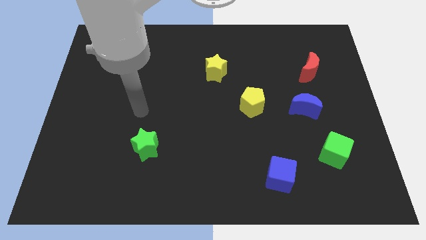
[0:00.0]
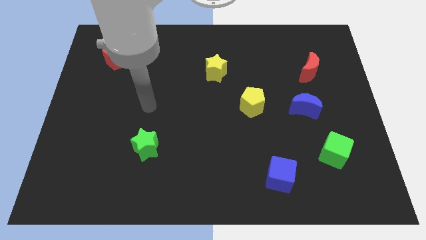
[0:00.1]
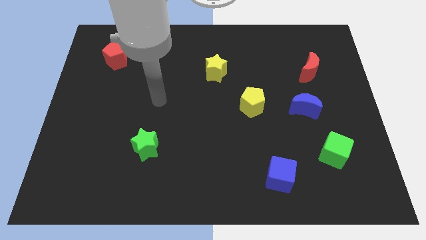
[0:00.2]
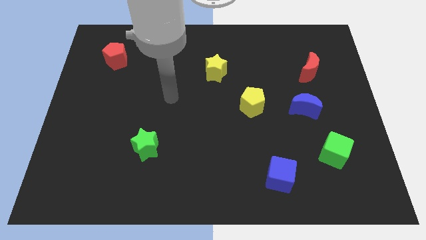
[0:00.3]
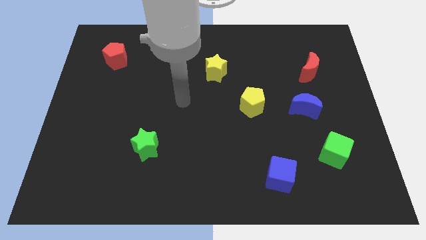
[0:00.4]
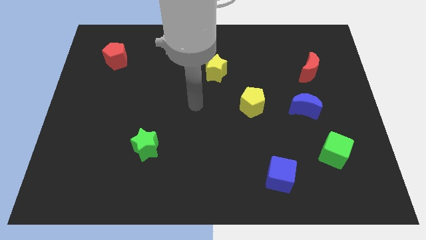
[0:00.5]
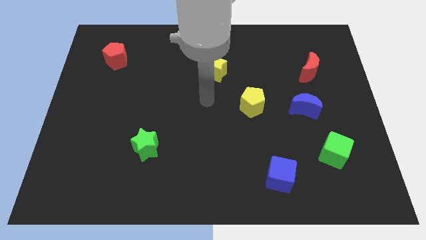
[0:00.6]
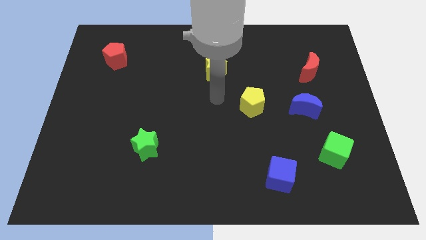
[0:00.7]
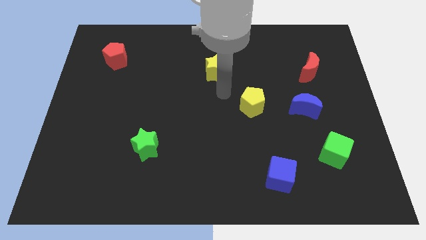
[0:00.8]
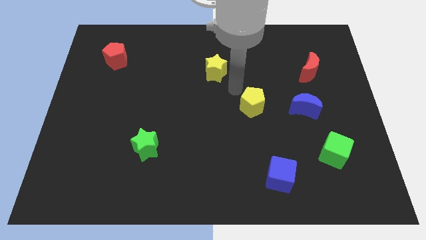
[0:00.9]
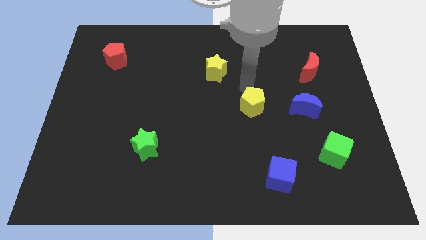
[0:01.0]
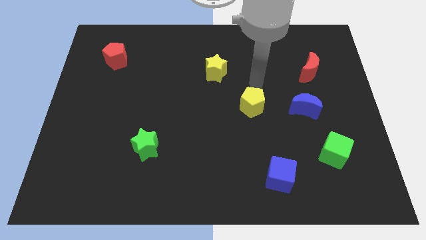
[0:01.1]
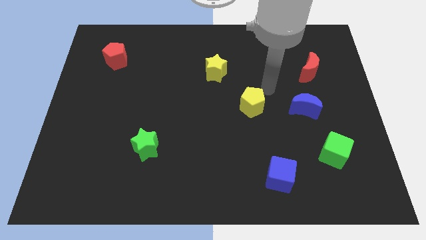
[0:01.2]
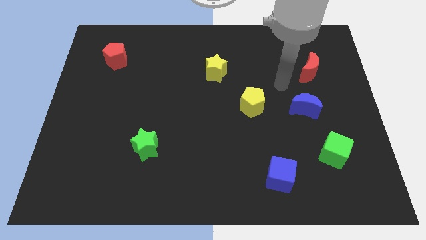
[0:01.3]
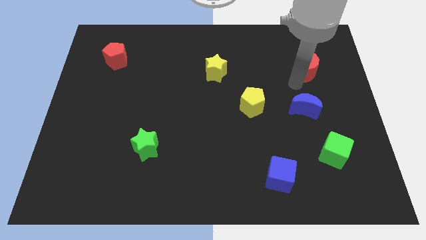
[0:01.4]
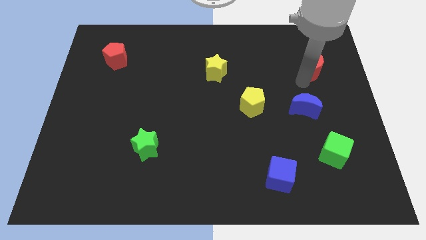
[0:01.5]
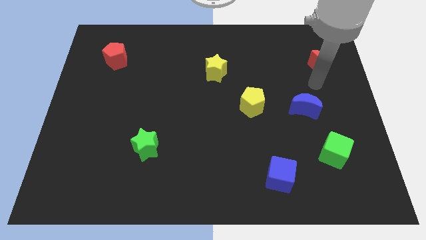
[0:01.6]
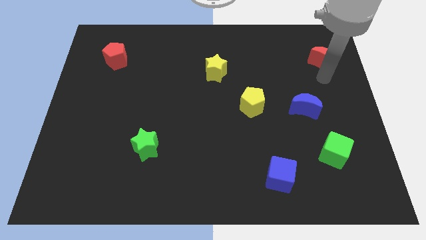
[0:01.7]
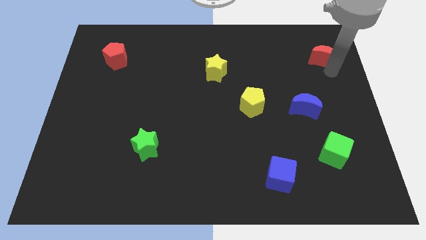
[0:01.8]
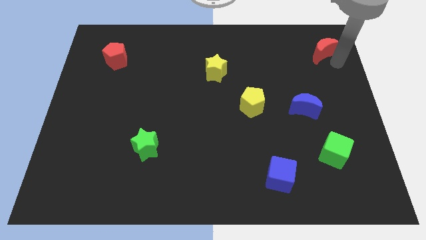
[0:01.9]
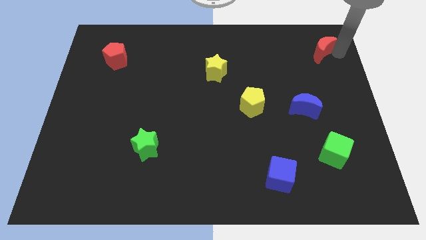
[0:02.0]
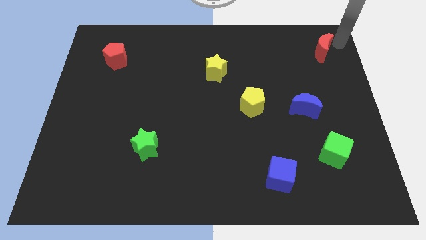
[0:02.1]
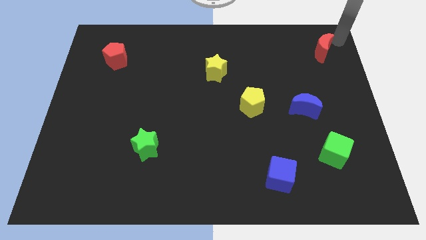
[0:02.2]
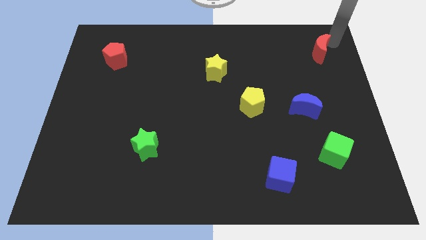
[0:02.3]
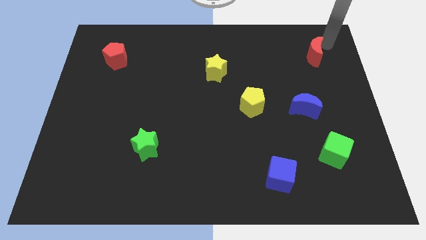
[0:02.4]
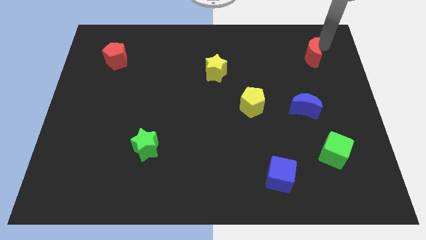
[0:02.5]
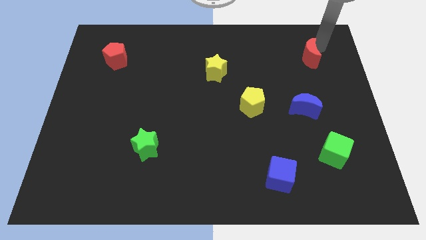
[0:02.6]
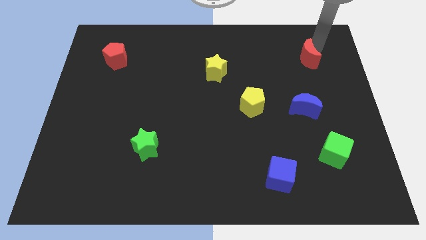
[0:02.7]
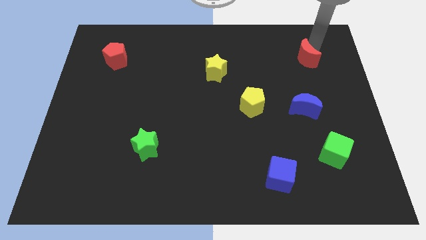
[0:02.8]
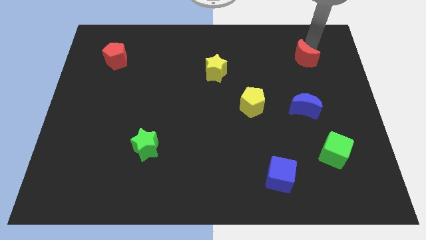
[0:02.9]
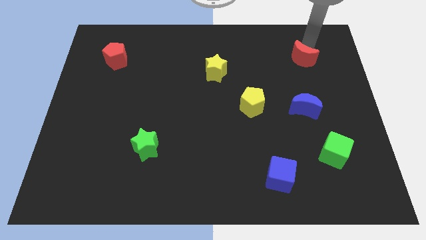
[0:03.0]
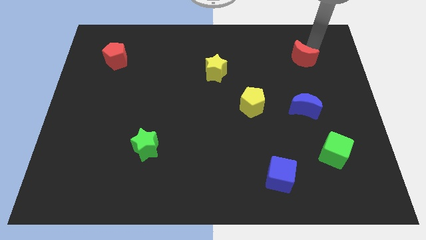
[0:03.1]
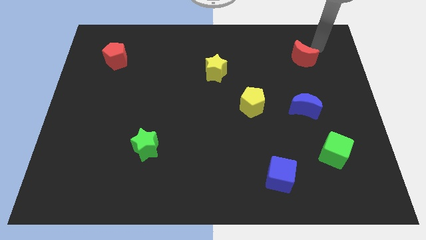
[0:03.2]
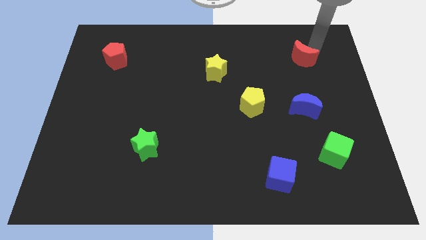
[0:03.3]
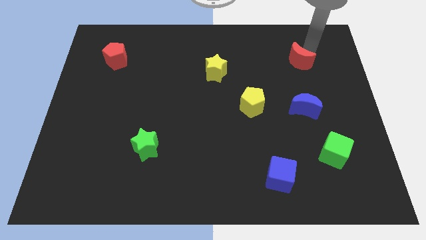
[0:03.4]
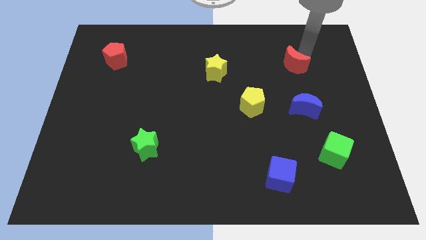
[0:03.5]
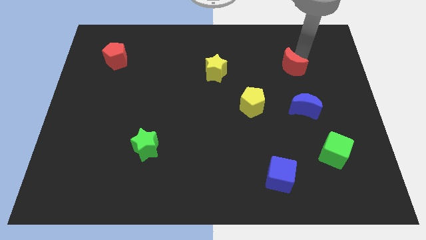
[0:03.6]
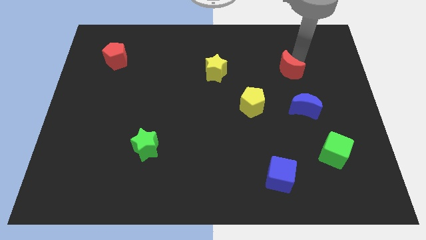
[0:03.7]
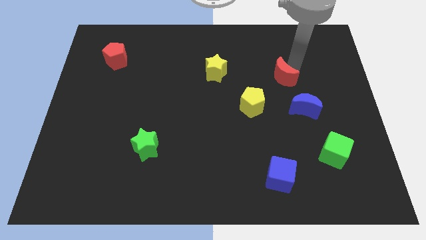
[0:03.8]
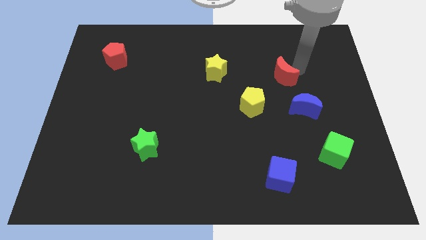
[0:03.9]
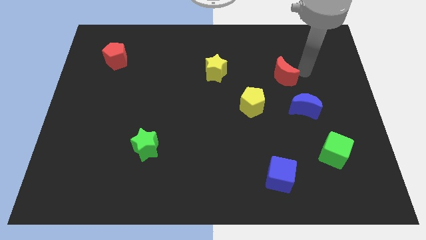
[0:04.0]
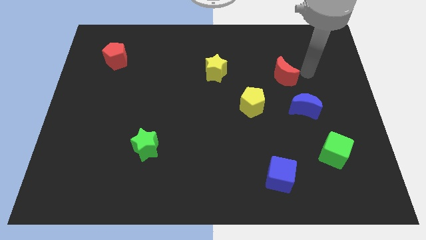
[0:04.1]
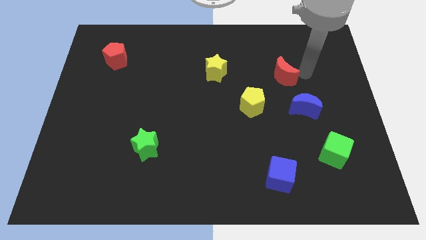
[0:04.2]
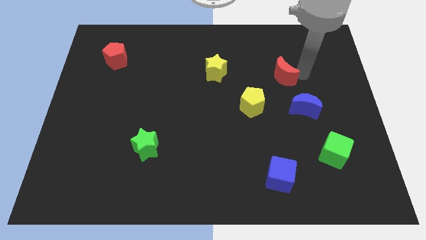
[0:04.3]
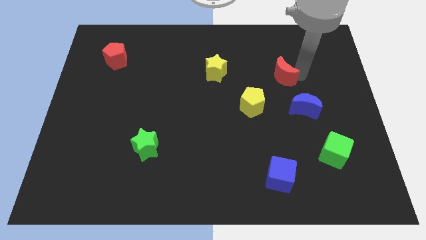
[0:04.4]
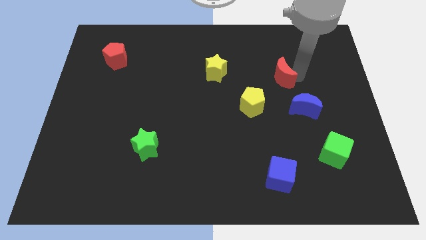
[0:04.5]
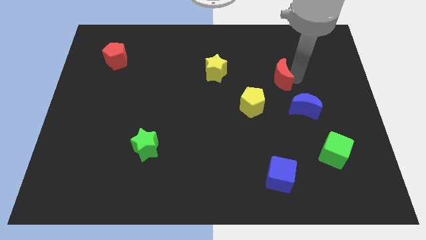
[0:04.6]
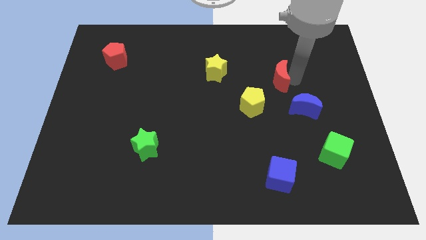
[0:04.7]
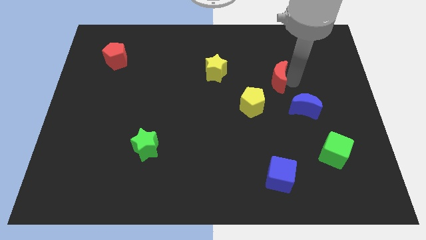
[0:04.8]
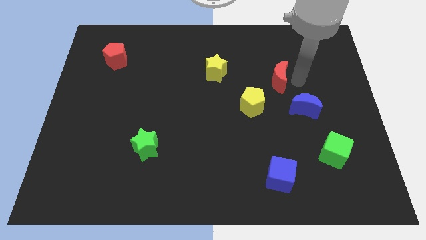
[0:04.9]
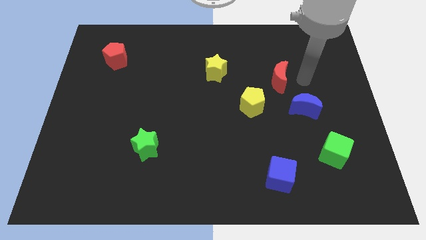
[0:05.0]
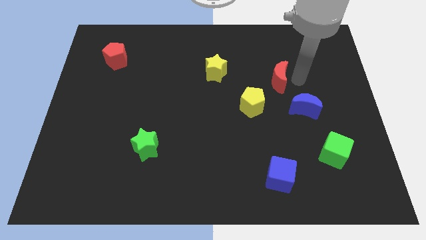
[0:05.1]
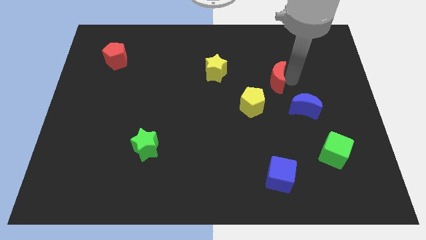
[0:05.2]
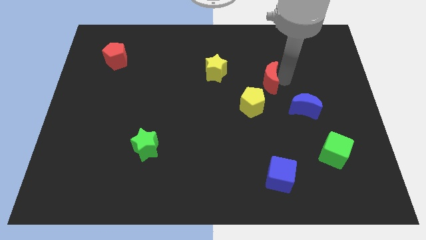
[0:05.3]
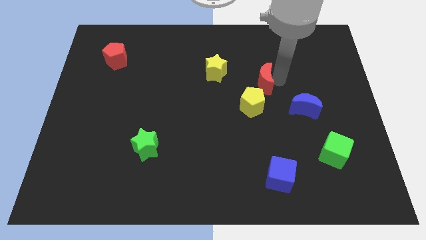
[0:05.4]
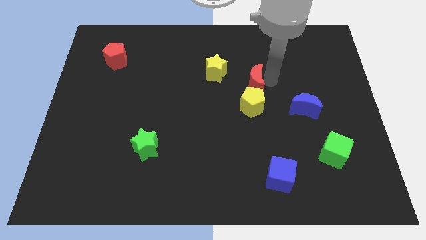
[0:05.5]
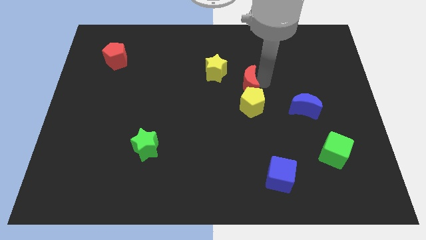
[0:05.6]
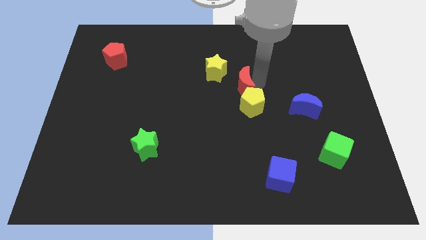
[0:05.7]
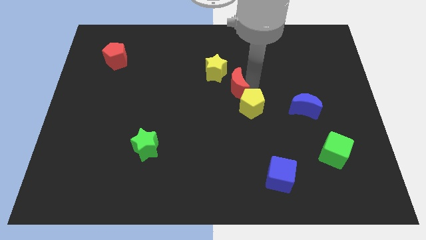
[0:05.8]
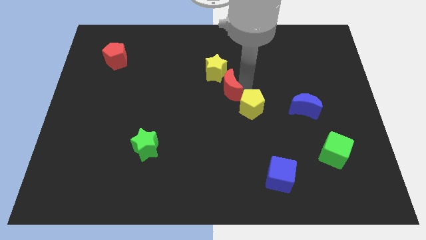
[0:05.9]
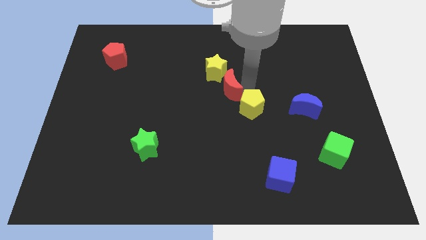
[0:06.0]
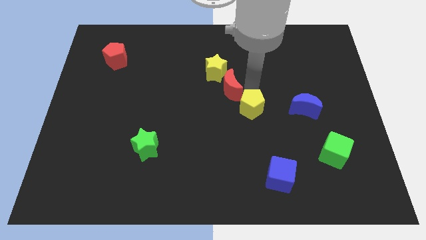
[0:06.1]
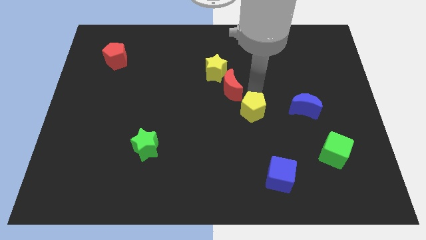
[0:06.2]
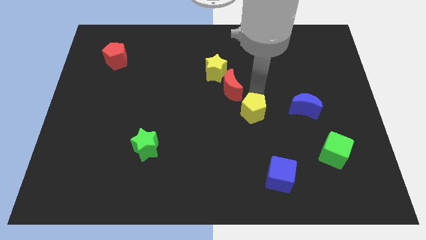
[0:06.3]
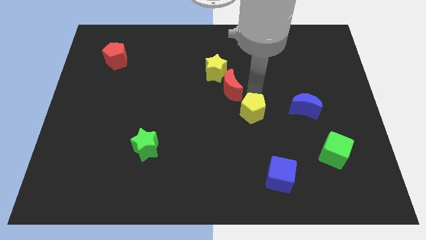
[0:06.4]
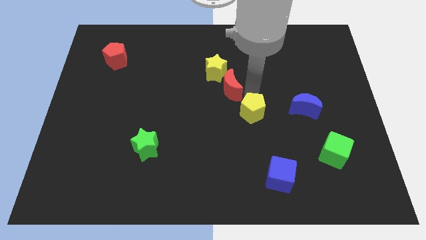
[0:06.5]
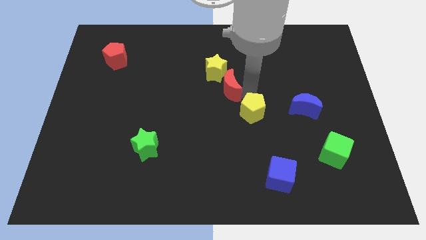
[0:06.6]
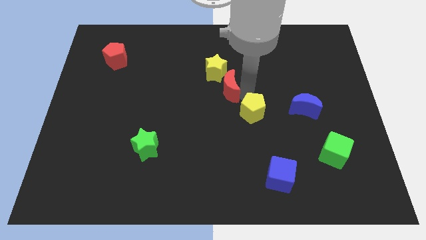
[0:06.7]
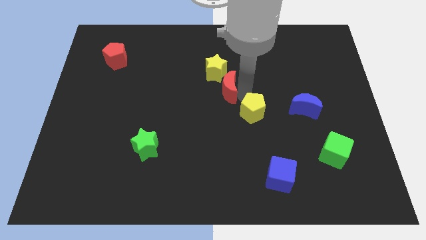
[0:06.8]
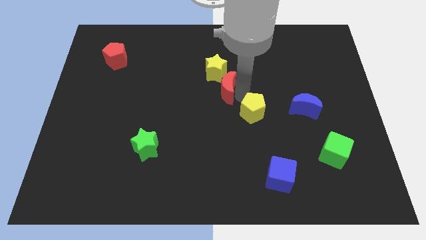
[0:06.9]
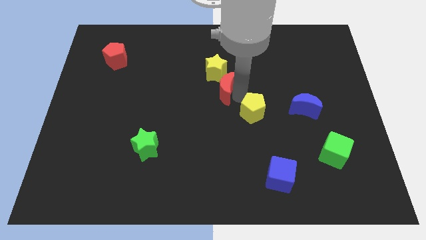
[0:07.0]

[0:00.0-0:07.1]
push the red moon to the left

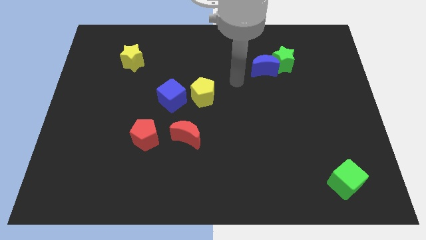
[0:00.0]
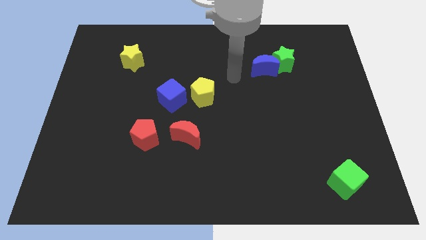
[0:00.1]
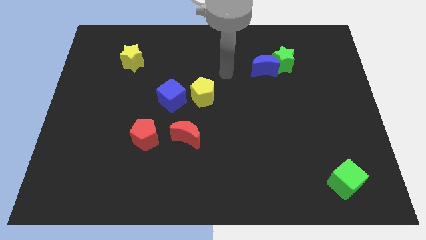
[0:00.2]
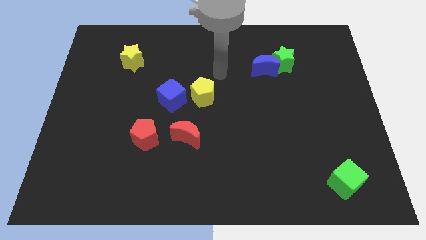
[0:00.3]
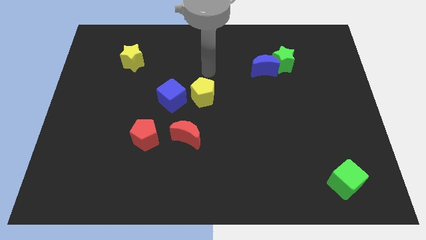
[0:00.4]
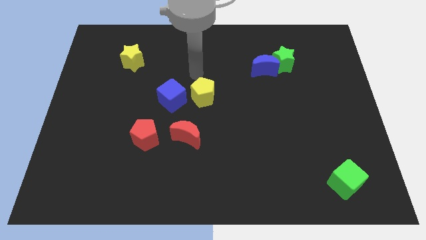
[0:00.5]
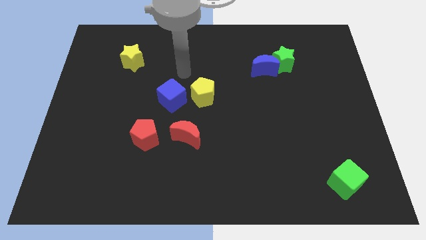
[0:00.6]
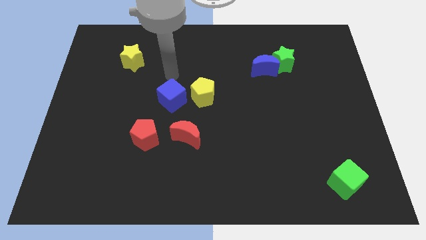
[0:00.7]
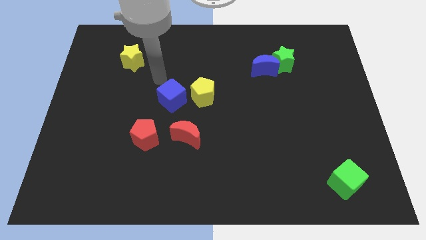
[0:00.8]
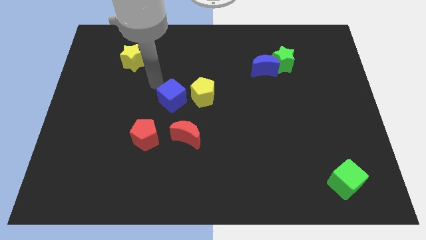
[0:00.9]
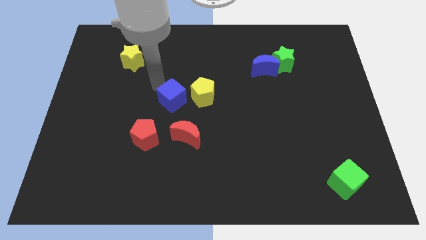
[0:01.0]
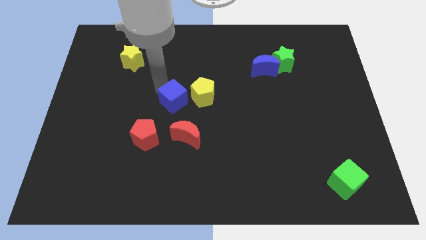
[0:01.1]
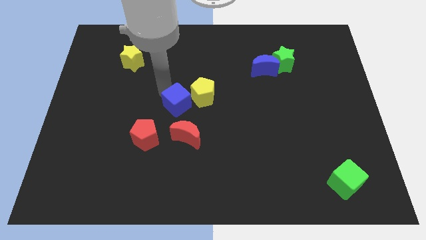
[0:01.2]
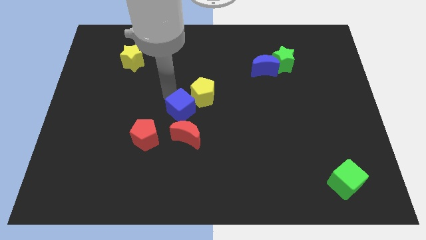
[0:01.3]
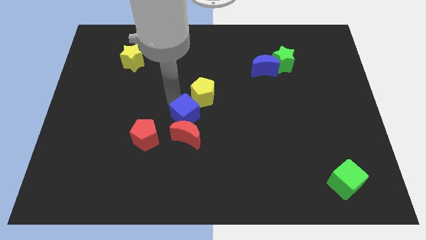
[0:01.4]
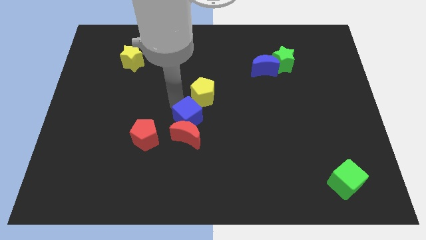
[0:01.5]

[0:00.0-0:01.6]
push the blue cube slightly diagonally down and to the right
